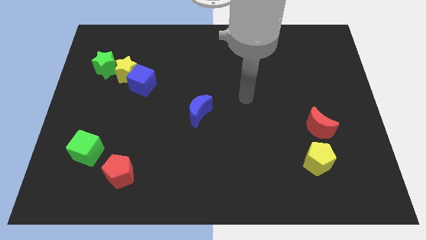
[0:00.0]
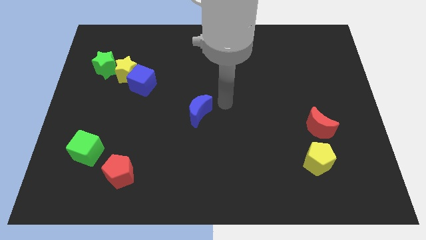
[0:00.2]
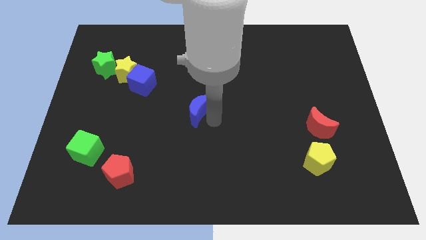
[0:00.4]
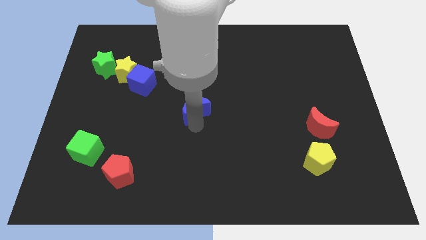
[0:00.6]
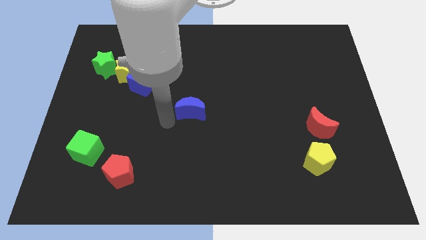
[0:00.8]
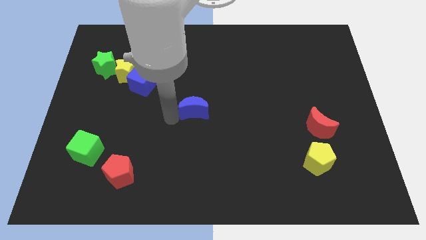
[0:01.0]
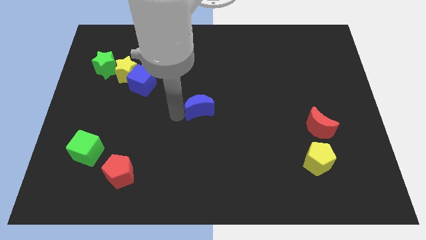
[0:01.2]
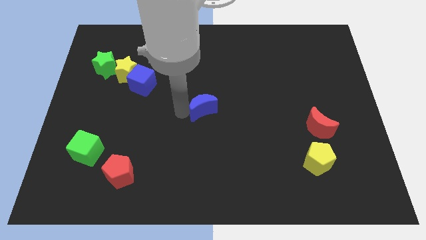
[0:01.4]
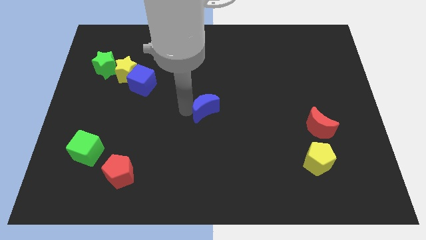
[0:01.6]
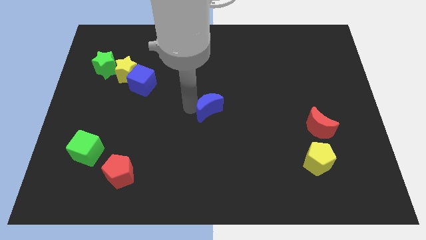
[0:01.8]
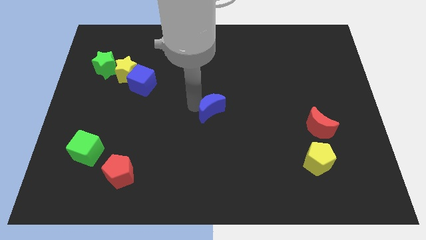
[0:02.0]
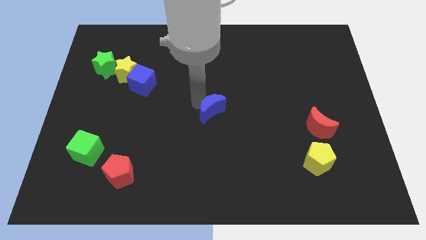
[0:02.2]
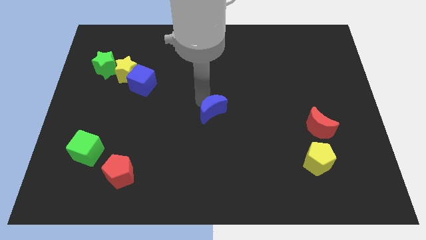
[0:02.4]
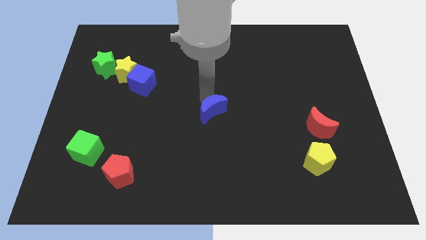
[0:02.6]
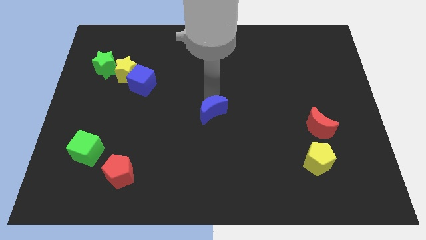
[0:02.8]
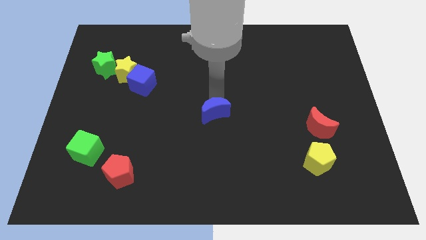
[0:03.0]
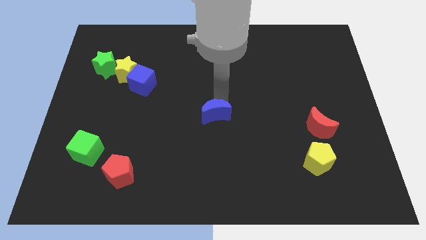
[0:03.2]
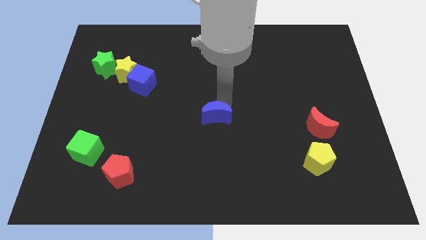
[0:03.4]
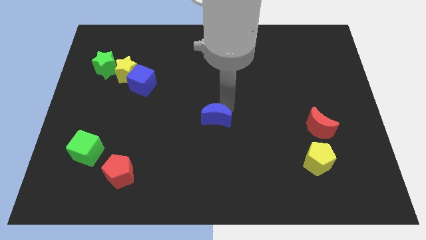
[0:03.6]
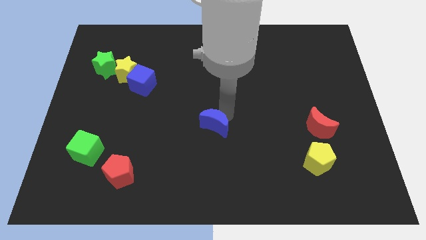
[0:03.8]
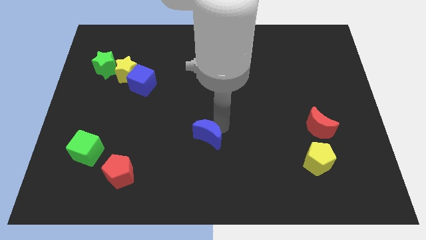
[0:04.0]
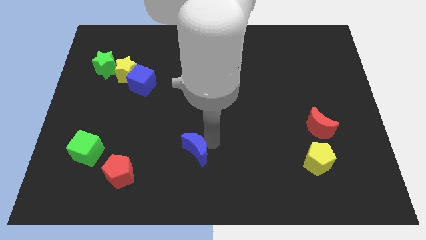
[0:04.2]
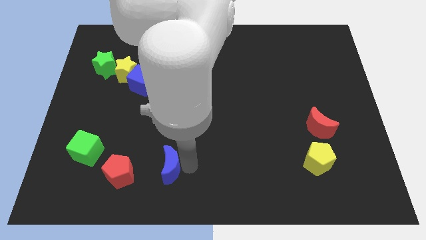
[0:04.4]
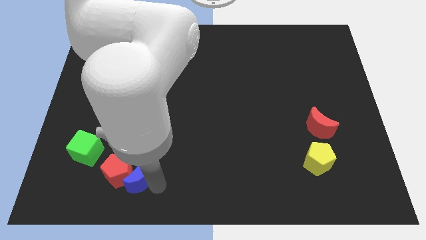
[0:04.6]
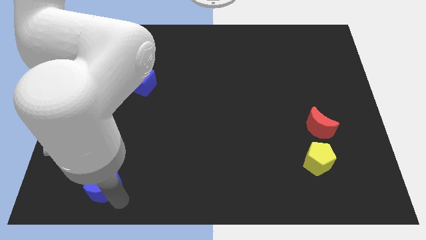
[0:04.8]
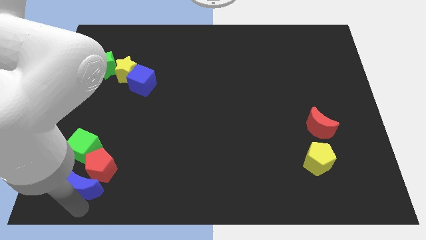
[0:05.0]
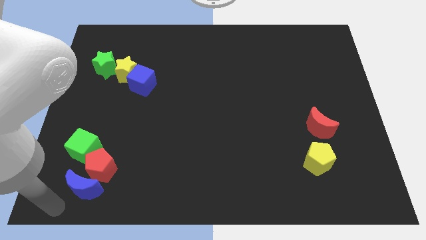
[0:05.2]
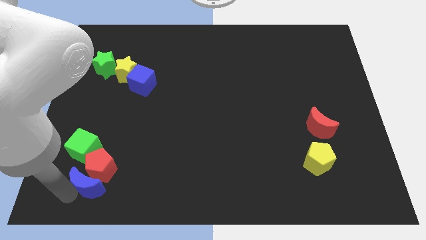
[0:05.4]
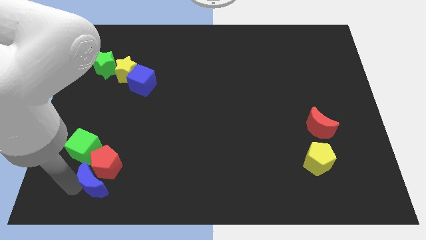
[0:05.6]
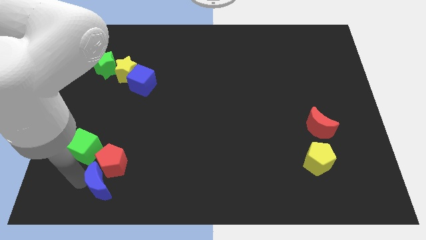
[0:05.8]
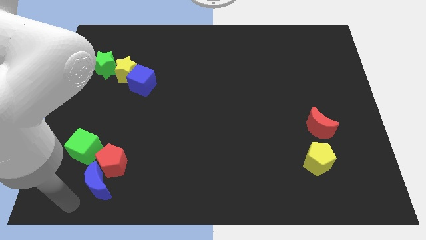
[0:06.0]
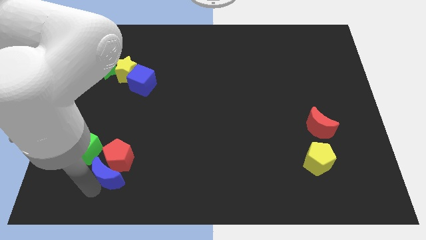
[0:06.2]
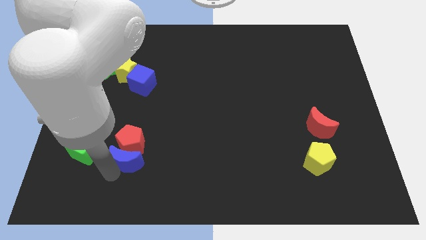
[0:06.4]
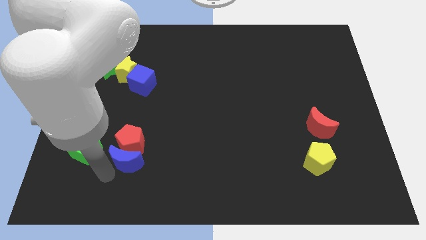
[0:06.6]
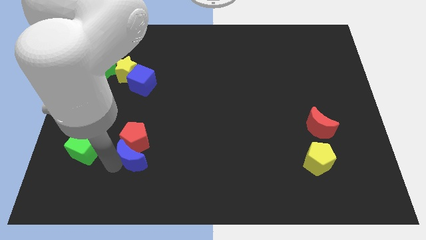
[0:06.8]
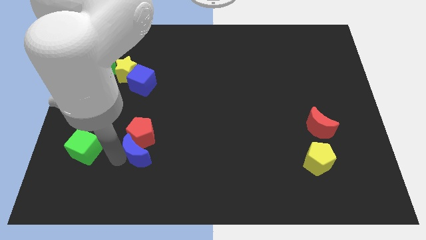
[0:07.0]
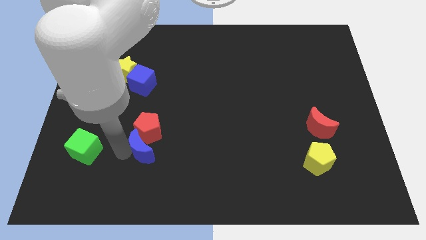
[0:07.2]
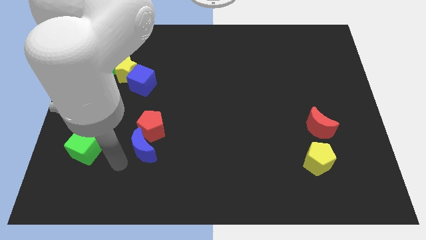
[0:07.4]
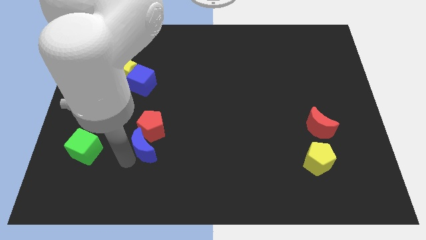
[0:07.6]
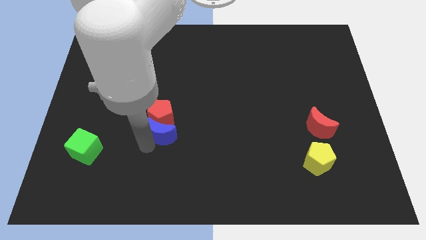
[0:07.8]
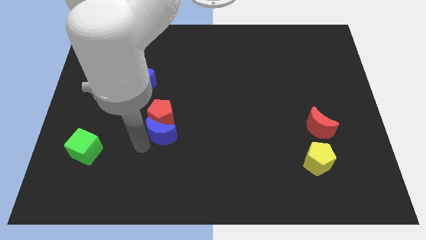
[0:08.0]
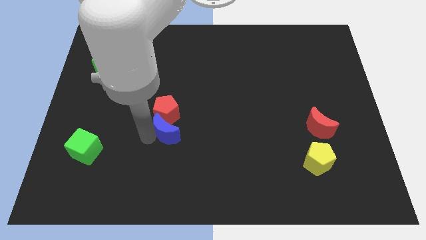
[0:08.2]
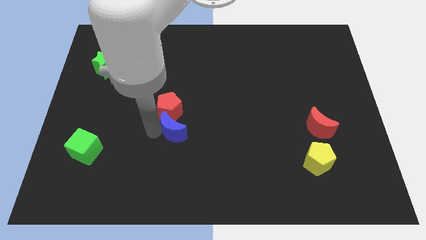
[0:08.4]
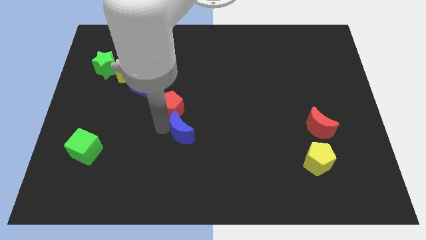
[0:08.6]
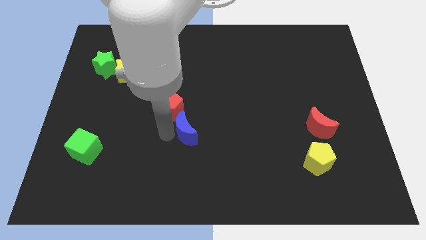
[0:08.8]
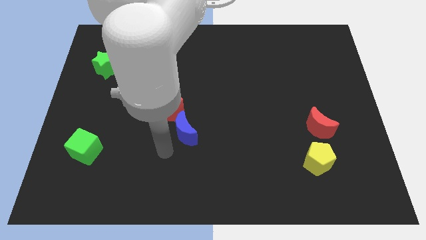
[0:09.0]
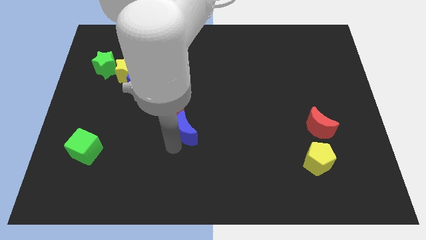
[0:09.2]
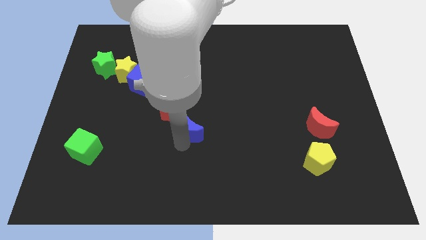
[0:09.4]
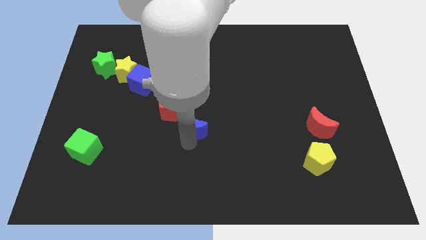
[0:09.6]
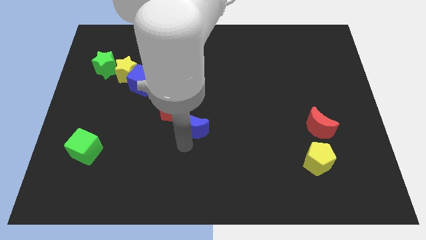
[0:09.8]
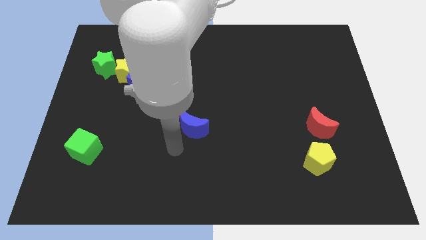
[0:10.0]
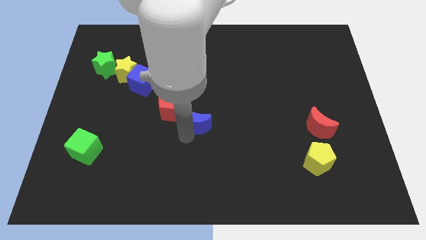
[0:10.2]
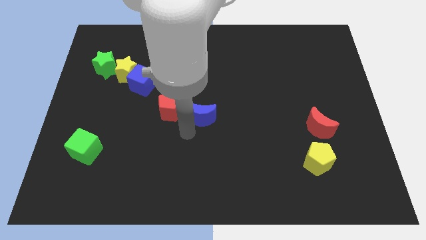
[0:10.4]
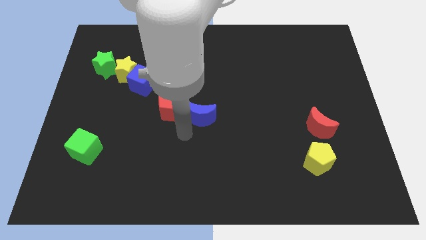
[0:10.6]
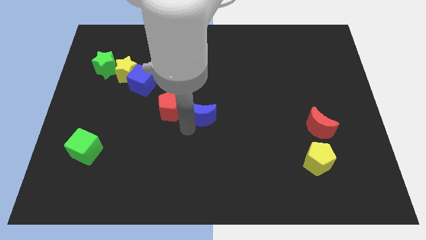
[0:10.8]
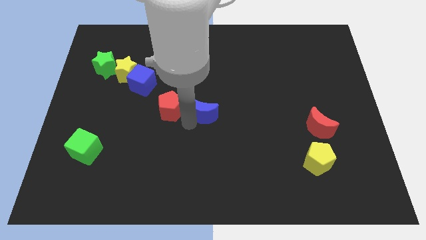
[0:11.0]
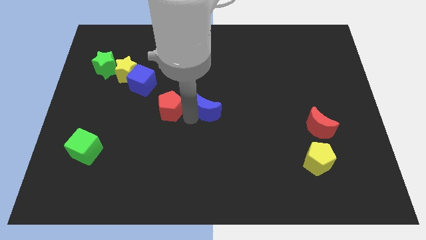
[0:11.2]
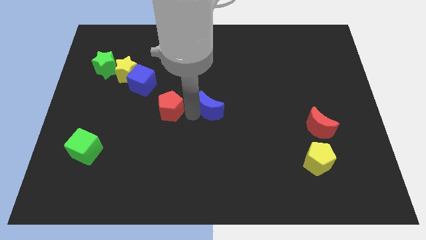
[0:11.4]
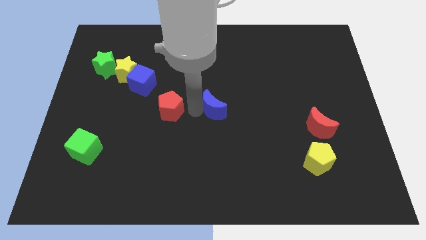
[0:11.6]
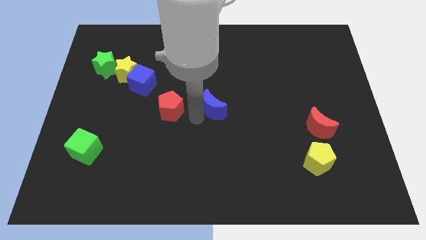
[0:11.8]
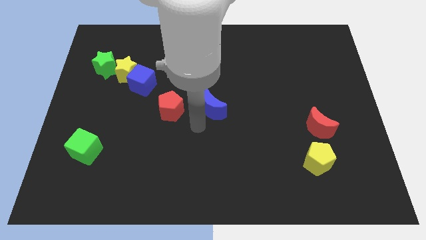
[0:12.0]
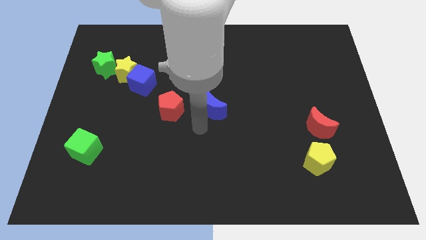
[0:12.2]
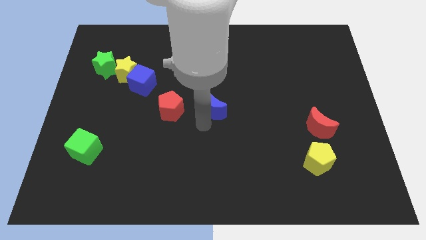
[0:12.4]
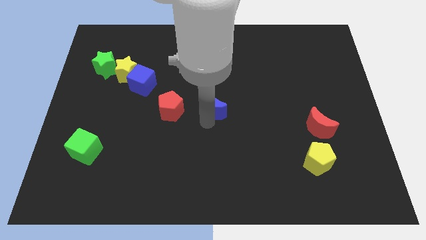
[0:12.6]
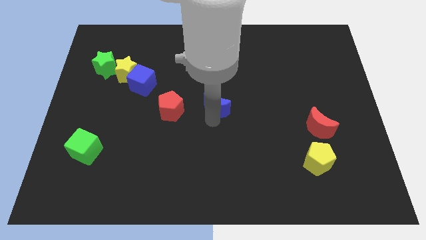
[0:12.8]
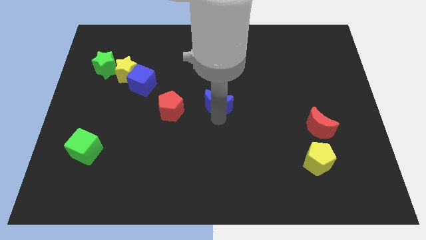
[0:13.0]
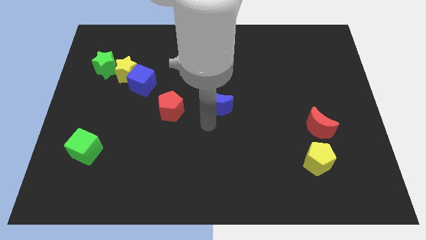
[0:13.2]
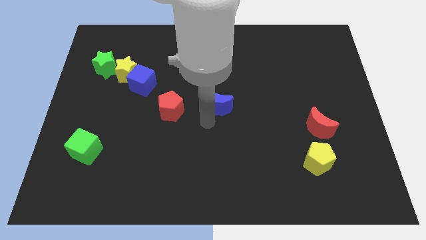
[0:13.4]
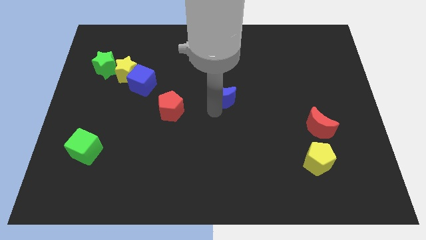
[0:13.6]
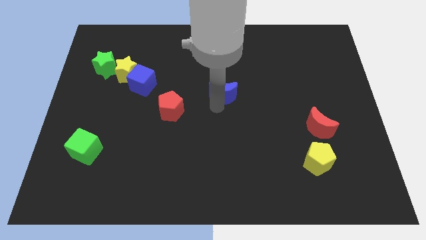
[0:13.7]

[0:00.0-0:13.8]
slightly push the blue moon up and right
